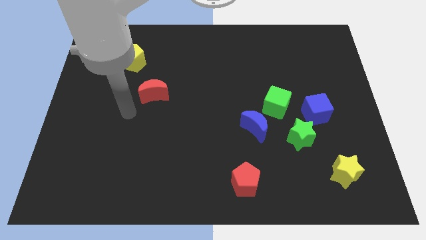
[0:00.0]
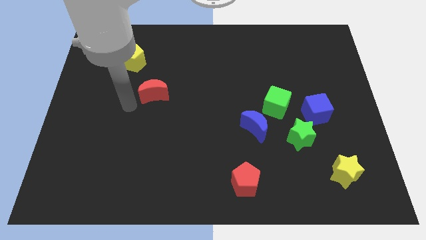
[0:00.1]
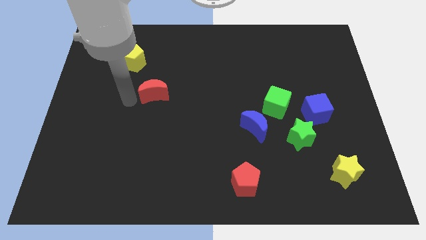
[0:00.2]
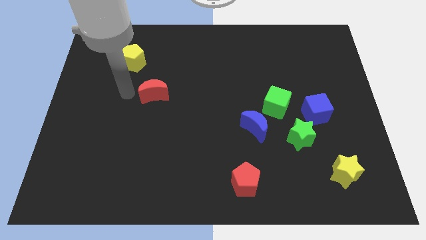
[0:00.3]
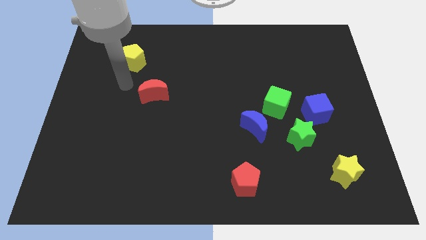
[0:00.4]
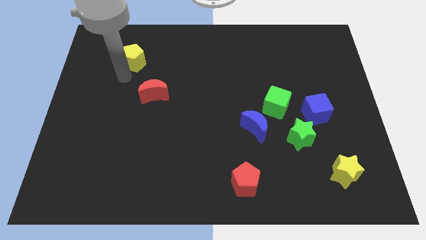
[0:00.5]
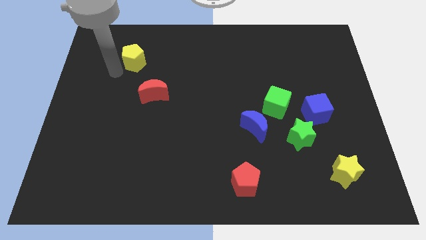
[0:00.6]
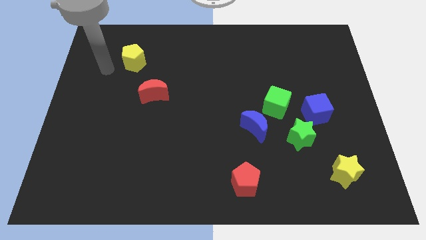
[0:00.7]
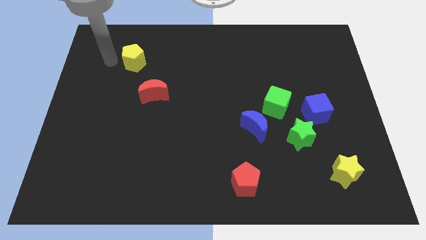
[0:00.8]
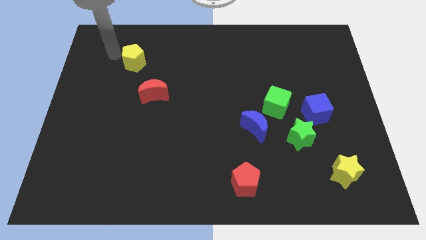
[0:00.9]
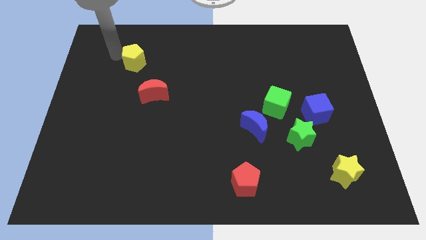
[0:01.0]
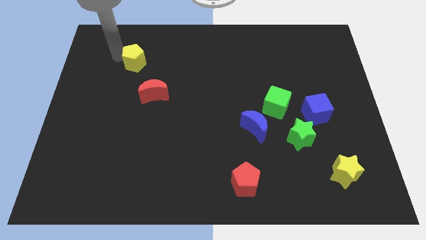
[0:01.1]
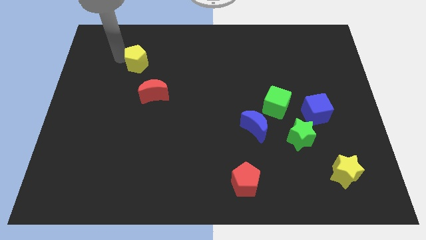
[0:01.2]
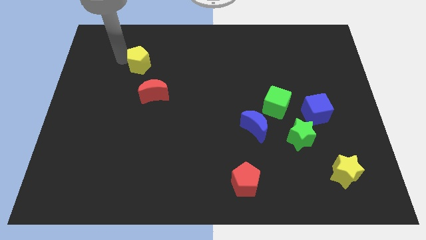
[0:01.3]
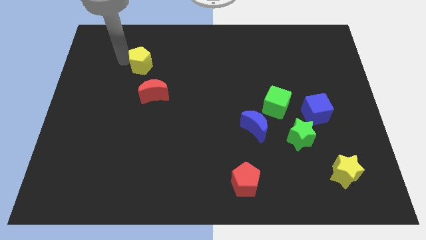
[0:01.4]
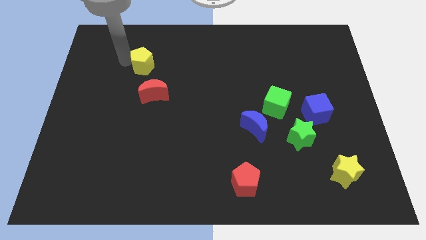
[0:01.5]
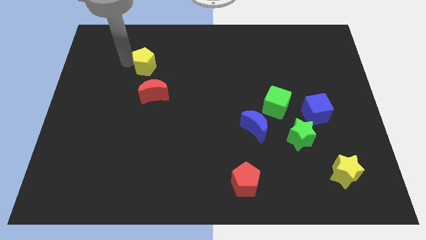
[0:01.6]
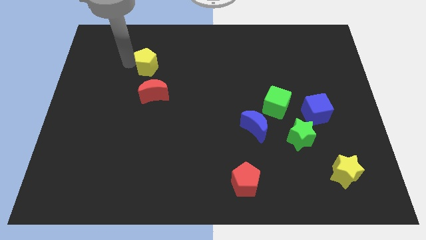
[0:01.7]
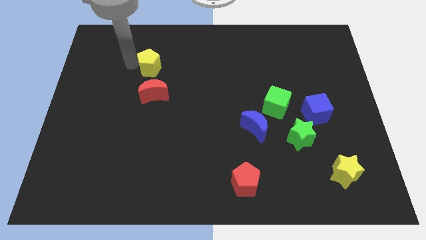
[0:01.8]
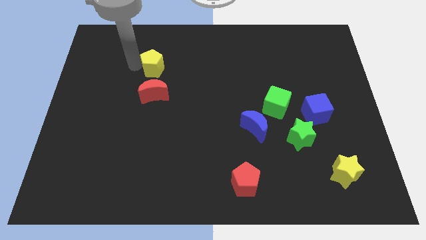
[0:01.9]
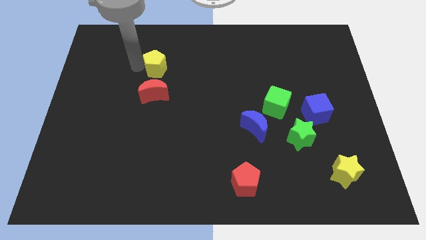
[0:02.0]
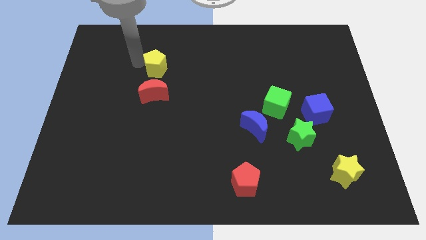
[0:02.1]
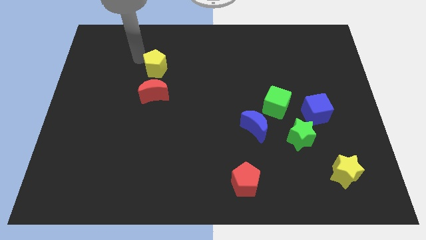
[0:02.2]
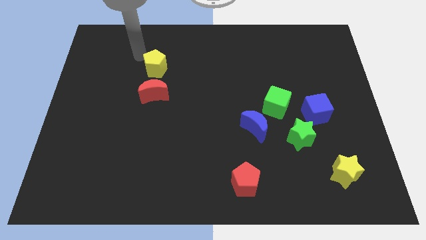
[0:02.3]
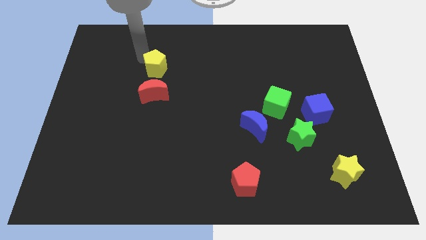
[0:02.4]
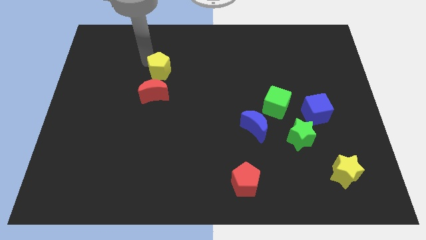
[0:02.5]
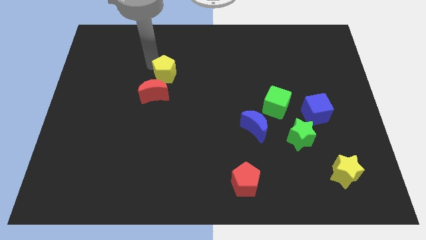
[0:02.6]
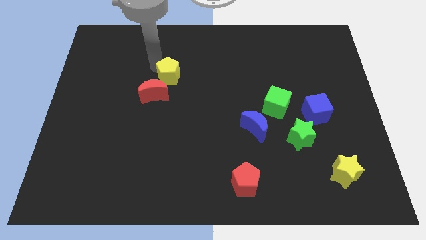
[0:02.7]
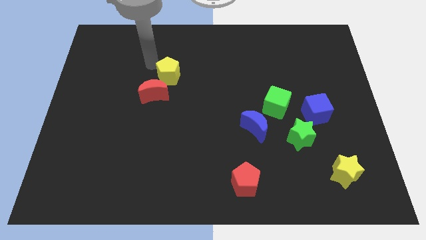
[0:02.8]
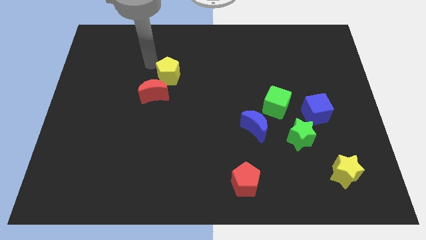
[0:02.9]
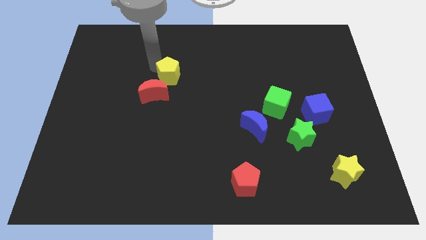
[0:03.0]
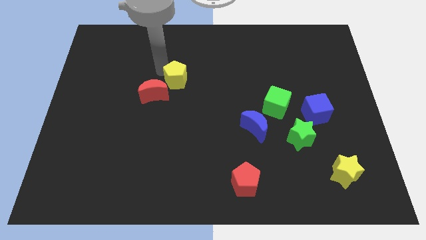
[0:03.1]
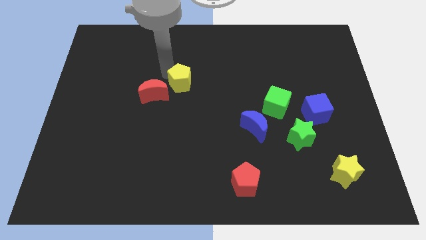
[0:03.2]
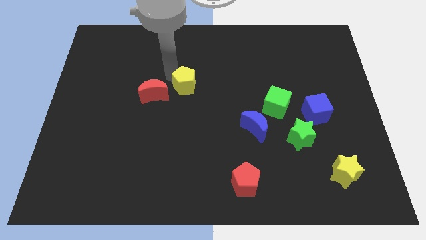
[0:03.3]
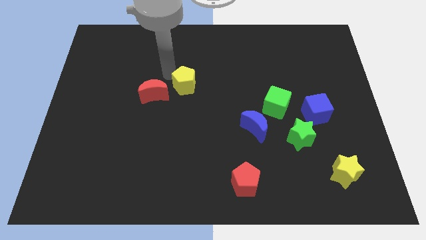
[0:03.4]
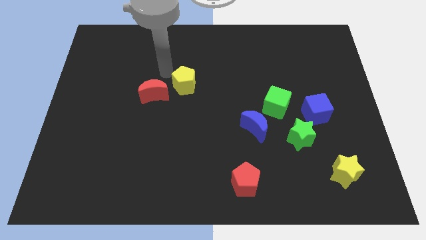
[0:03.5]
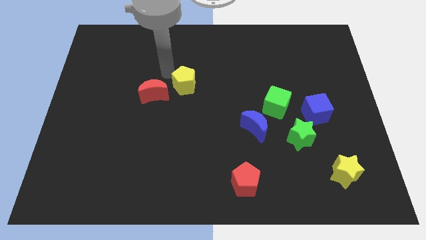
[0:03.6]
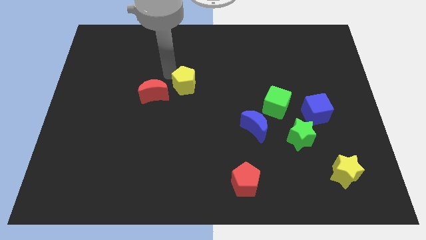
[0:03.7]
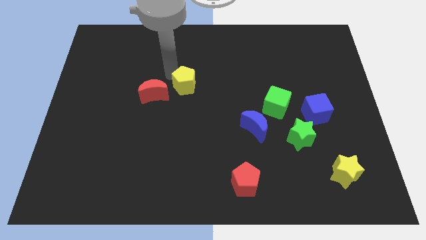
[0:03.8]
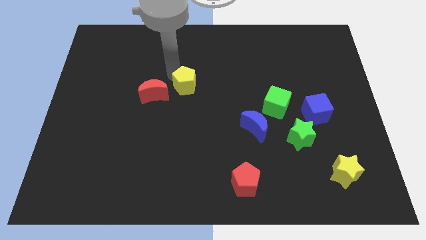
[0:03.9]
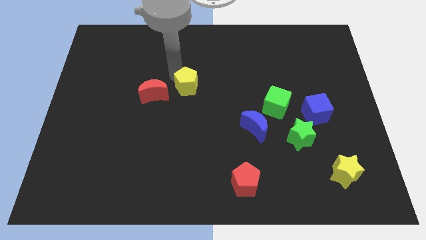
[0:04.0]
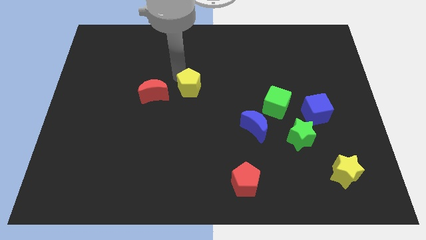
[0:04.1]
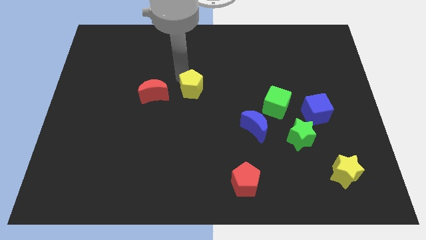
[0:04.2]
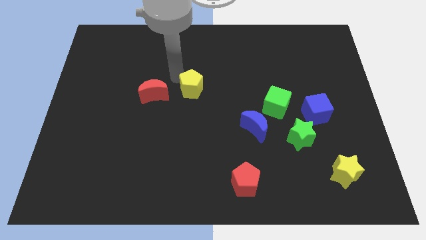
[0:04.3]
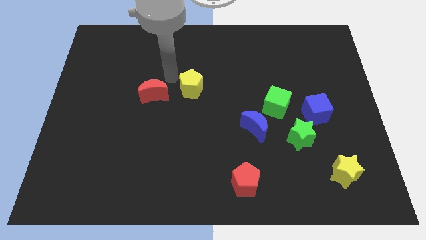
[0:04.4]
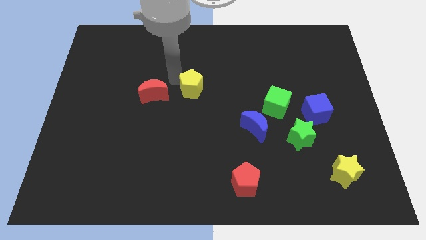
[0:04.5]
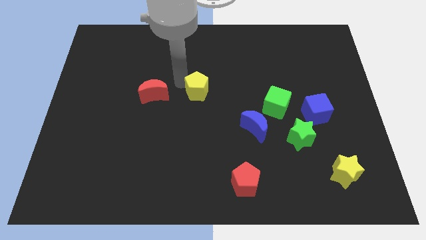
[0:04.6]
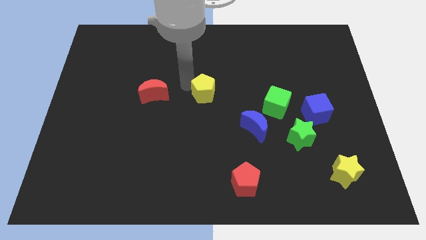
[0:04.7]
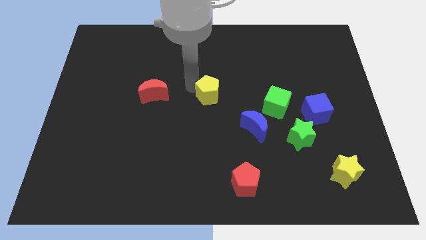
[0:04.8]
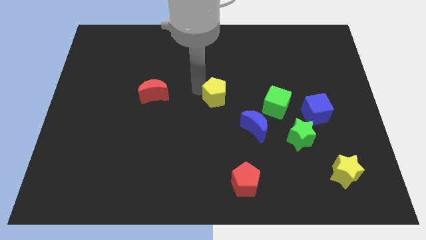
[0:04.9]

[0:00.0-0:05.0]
put the yellow pentagon to the left of the green cube

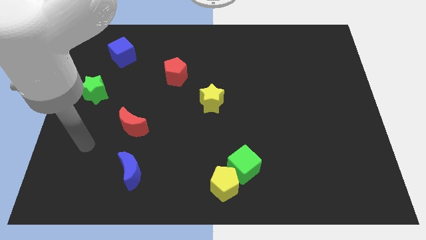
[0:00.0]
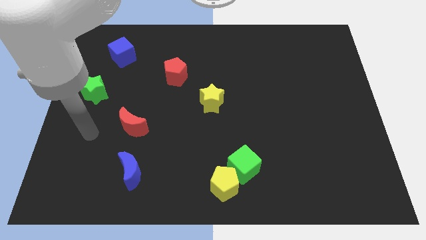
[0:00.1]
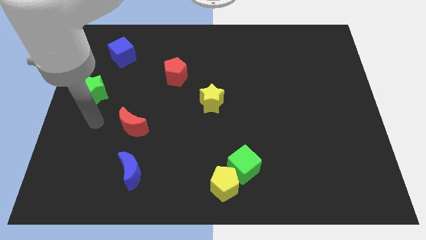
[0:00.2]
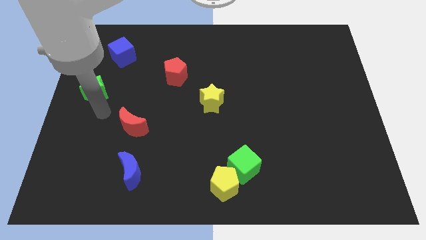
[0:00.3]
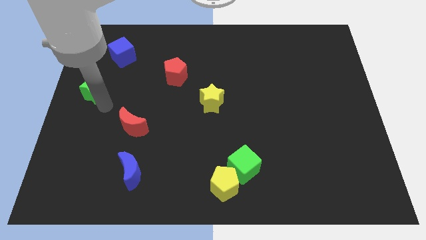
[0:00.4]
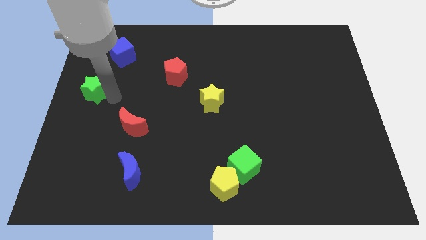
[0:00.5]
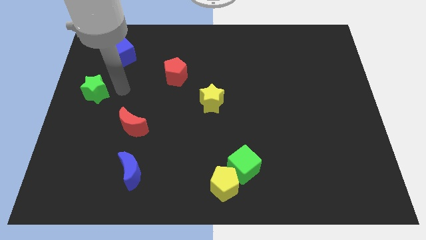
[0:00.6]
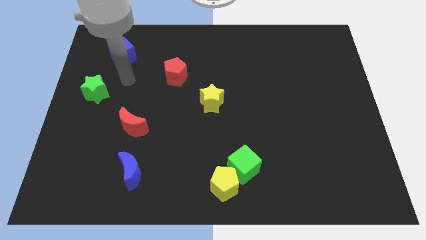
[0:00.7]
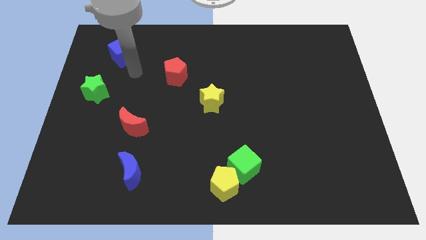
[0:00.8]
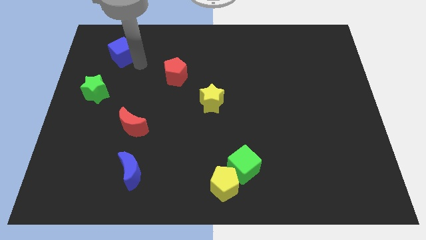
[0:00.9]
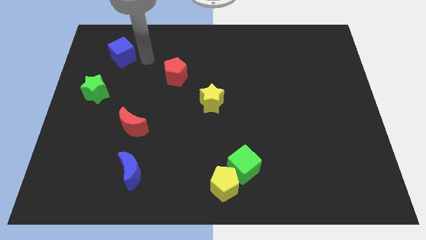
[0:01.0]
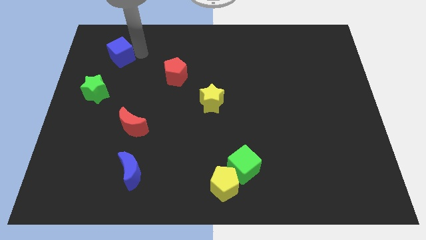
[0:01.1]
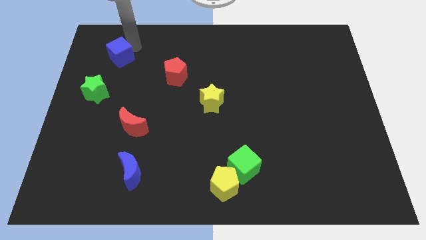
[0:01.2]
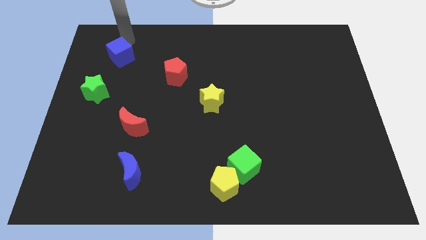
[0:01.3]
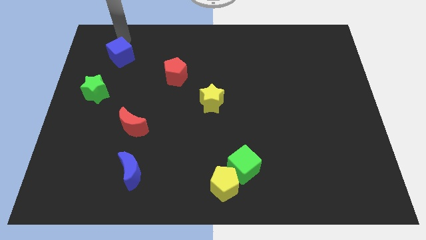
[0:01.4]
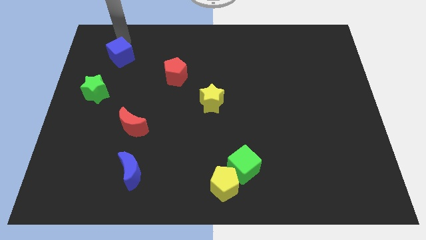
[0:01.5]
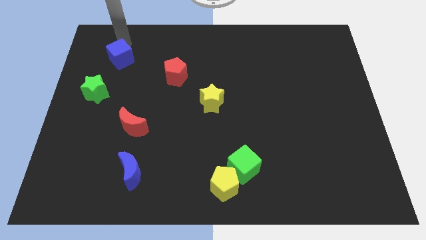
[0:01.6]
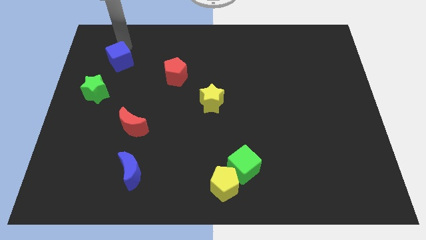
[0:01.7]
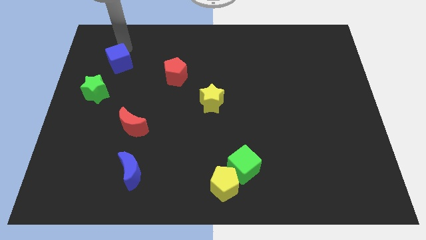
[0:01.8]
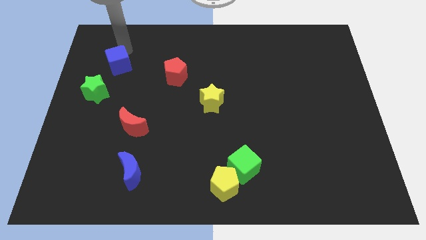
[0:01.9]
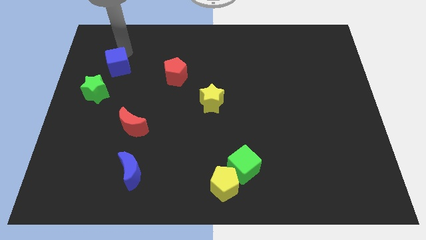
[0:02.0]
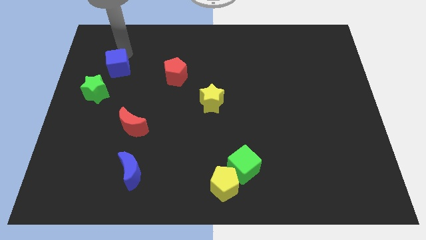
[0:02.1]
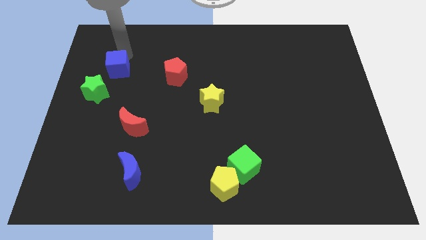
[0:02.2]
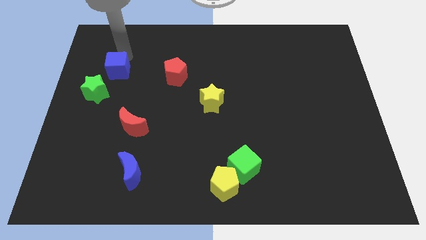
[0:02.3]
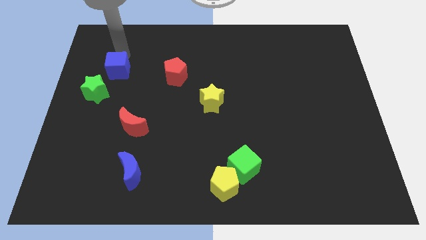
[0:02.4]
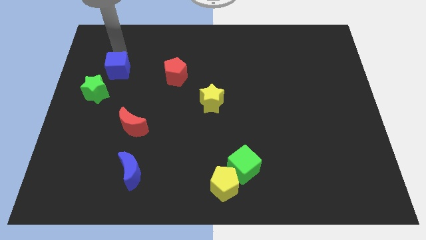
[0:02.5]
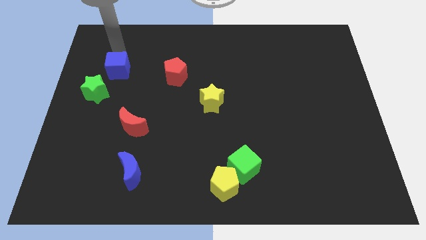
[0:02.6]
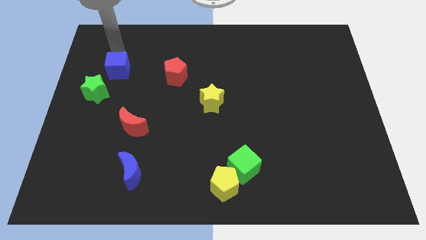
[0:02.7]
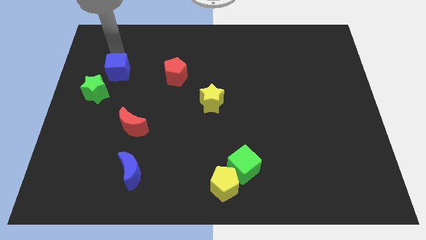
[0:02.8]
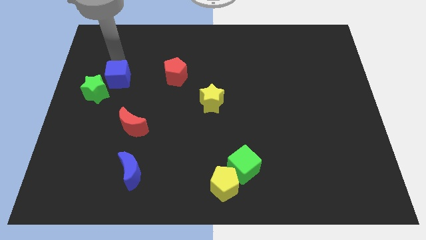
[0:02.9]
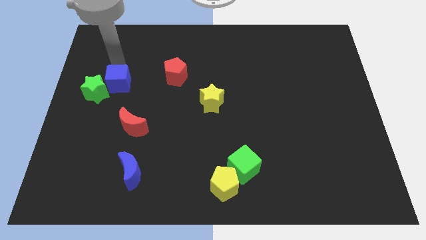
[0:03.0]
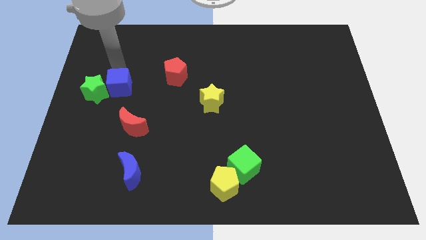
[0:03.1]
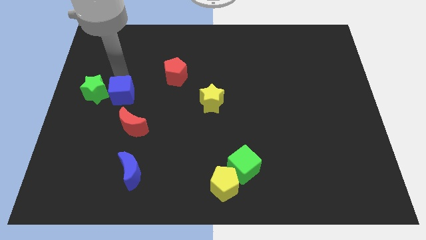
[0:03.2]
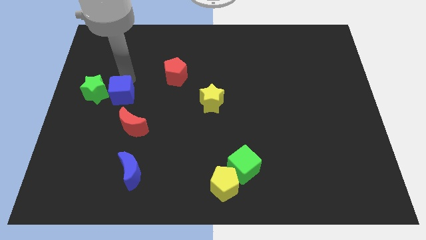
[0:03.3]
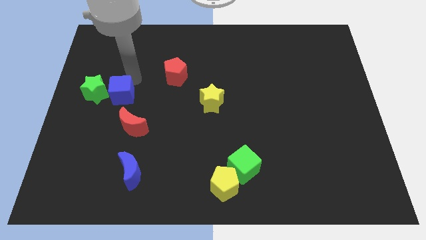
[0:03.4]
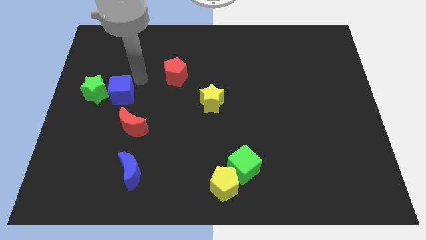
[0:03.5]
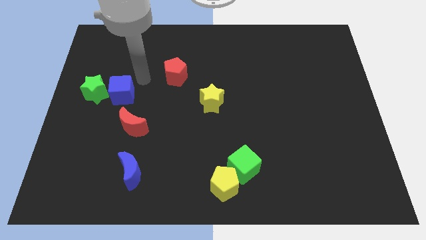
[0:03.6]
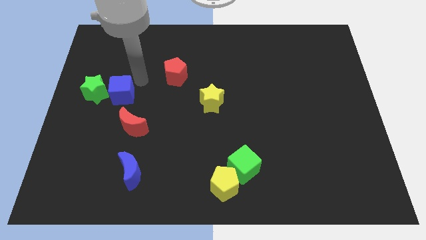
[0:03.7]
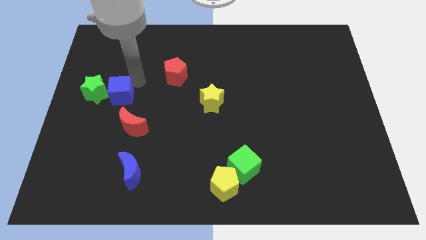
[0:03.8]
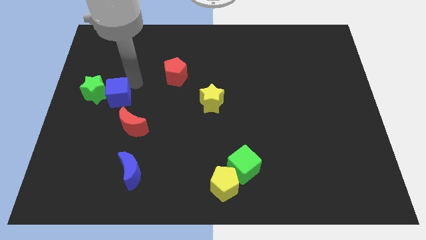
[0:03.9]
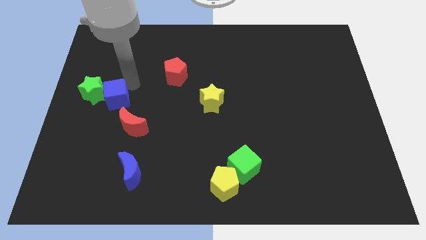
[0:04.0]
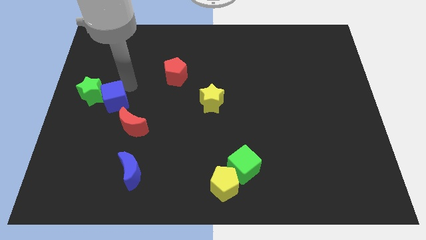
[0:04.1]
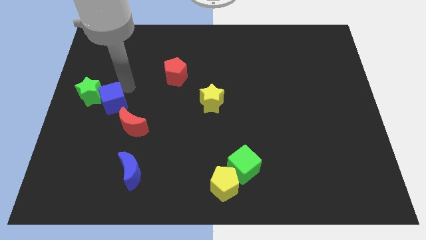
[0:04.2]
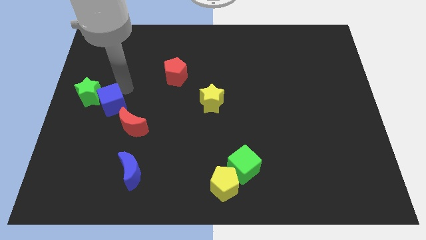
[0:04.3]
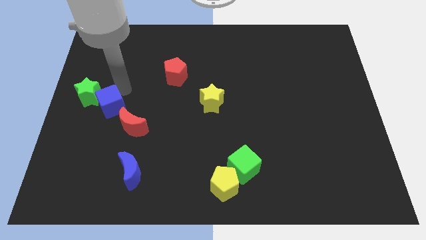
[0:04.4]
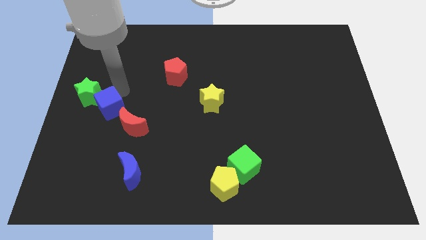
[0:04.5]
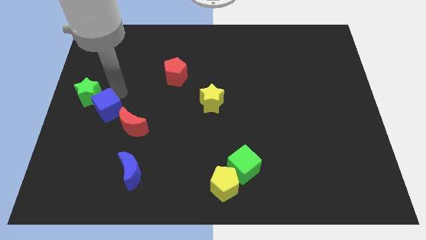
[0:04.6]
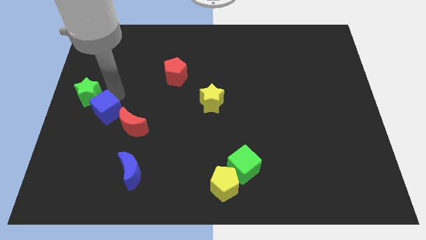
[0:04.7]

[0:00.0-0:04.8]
move the blue cube left of the red moon
